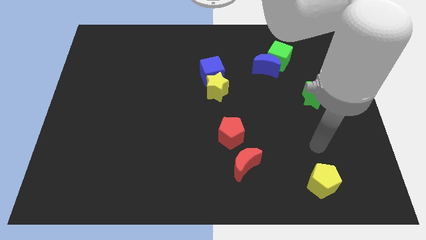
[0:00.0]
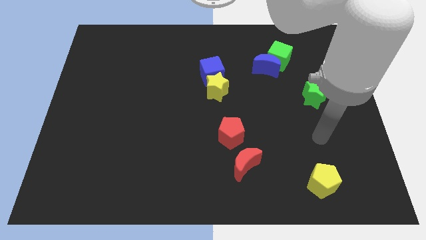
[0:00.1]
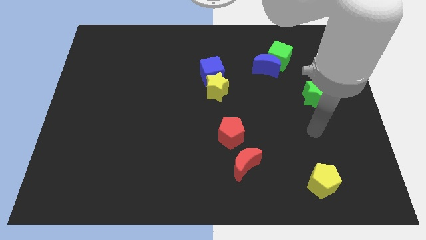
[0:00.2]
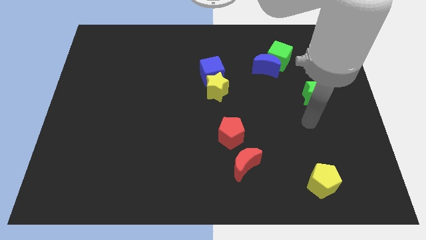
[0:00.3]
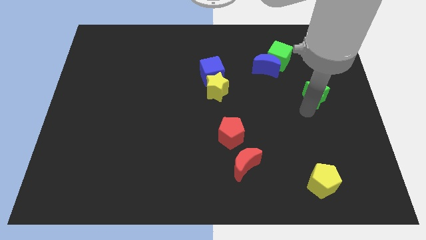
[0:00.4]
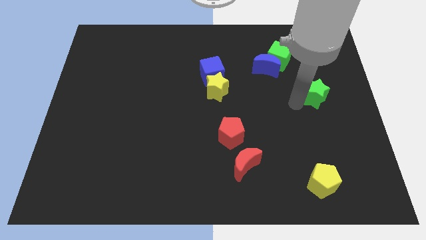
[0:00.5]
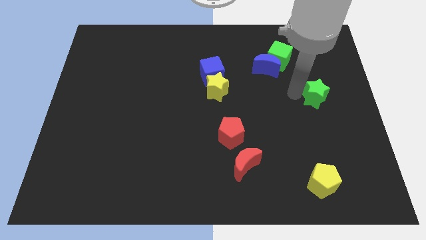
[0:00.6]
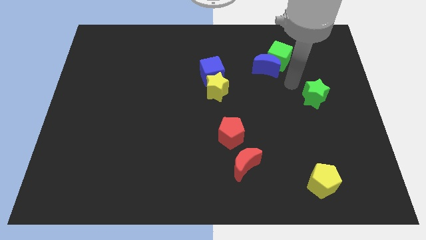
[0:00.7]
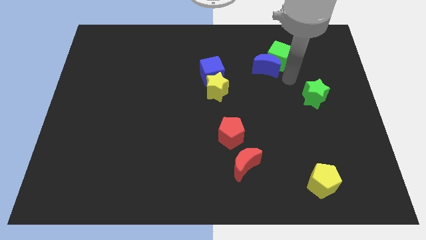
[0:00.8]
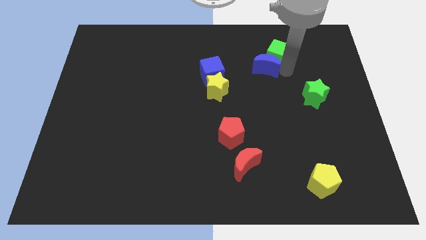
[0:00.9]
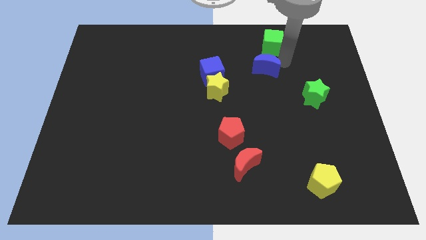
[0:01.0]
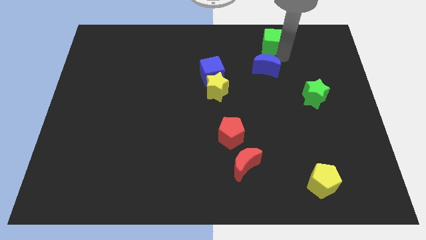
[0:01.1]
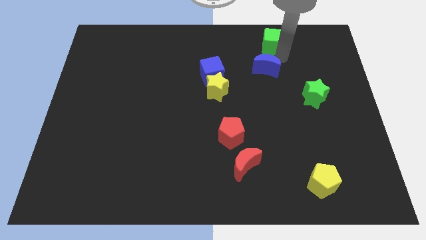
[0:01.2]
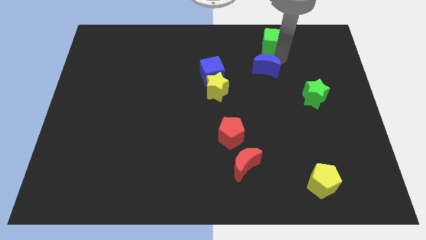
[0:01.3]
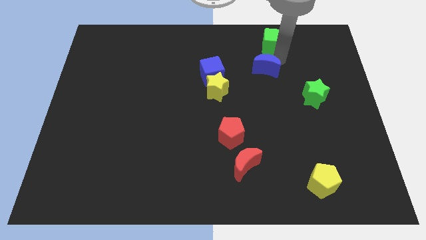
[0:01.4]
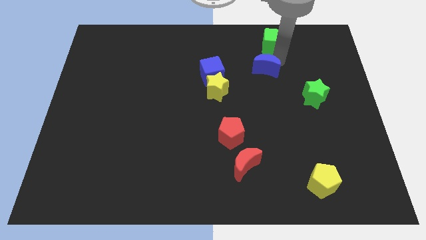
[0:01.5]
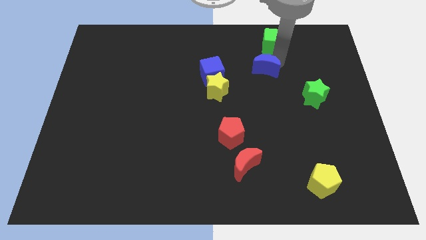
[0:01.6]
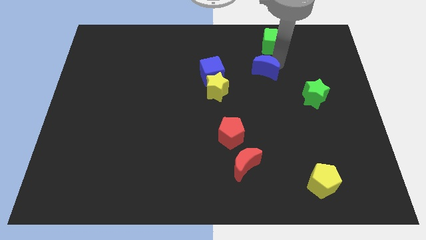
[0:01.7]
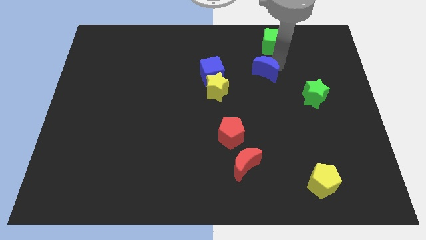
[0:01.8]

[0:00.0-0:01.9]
move the blue moon away from the green cube

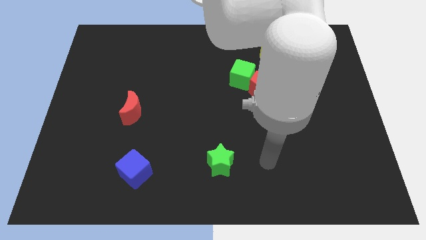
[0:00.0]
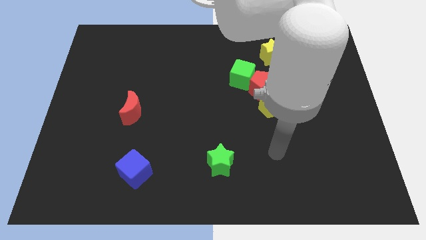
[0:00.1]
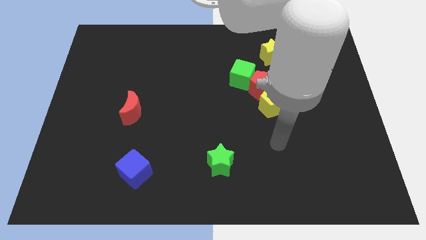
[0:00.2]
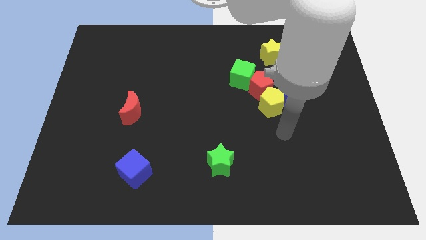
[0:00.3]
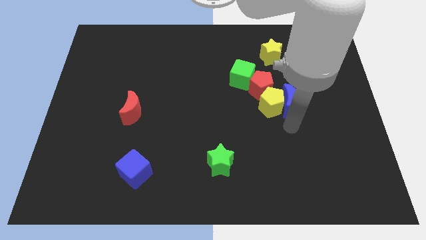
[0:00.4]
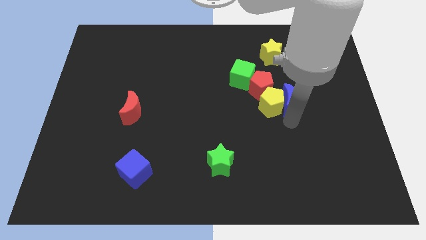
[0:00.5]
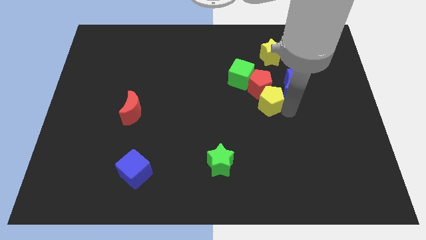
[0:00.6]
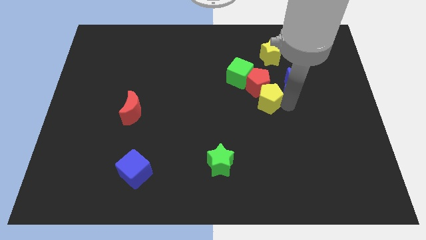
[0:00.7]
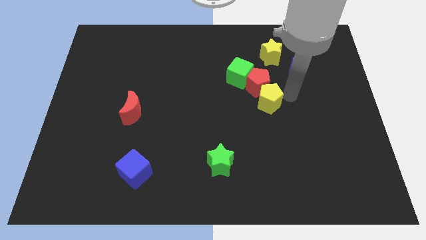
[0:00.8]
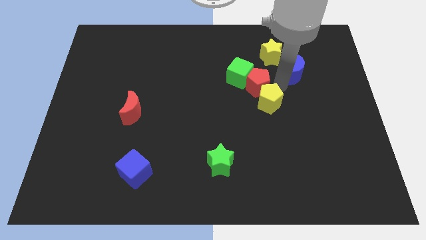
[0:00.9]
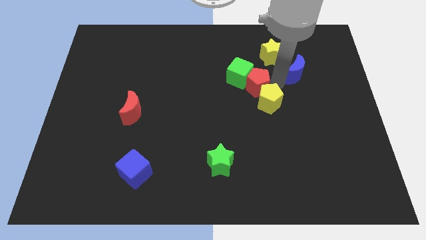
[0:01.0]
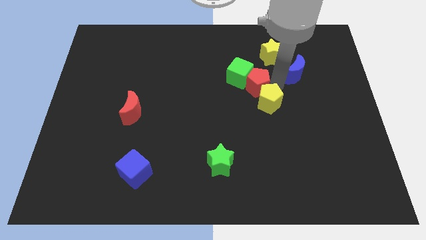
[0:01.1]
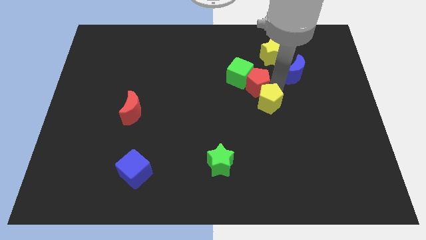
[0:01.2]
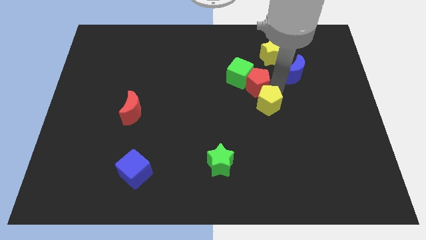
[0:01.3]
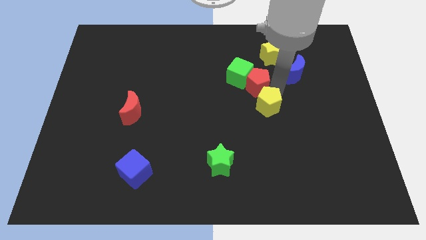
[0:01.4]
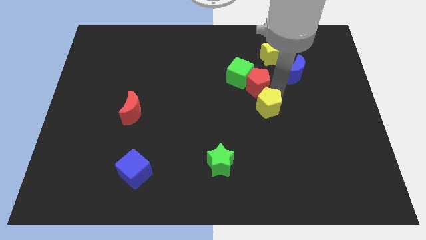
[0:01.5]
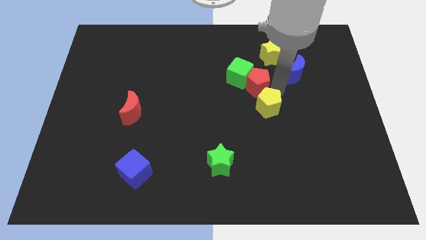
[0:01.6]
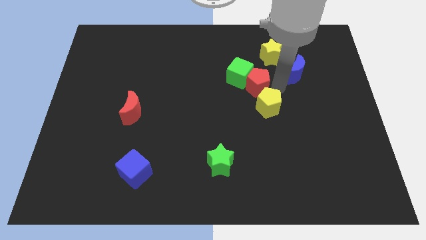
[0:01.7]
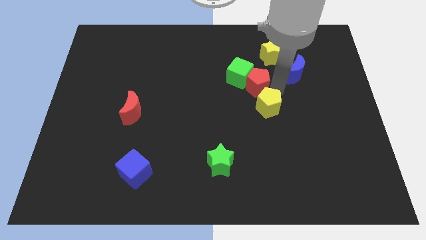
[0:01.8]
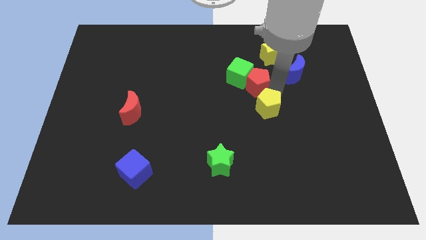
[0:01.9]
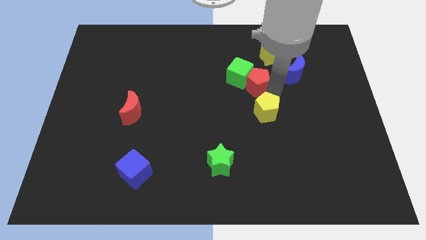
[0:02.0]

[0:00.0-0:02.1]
separate the yellow pentagon from the blue moon and red pentagon

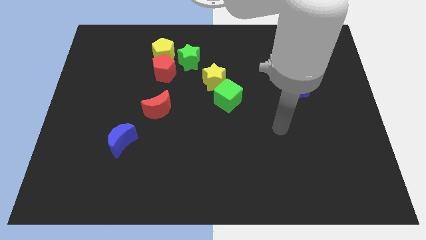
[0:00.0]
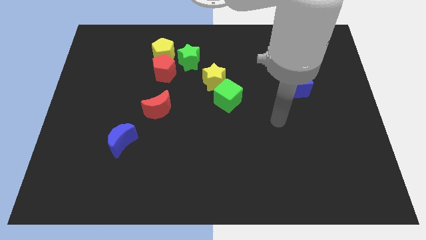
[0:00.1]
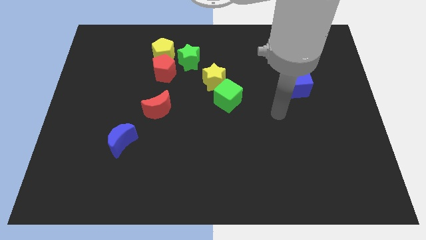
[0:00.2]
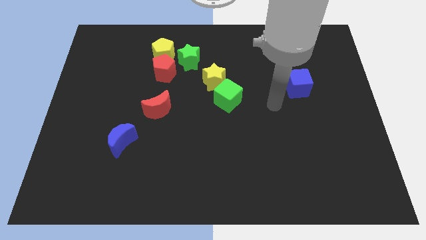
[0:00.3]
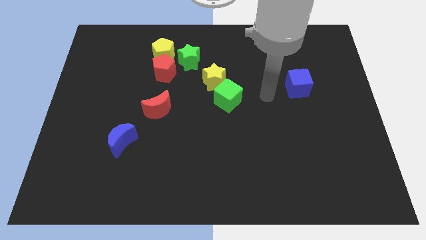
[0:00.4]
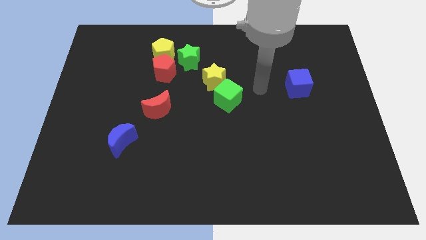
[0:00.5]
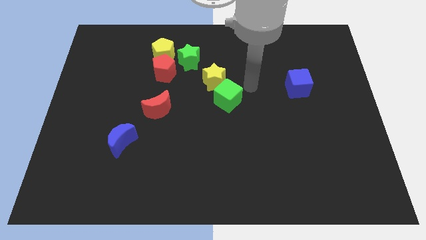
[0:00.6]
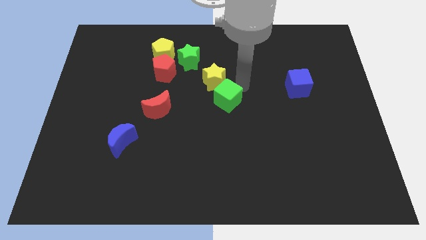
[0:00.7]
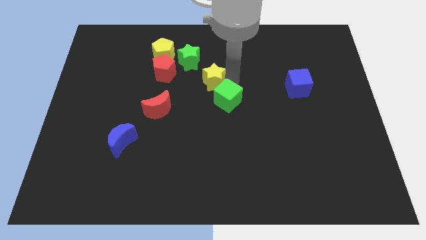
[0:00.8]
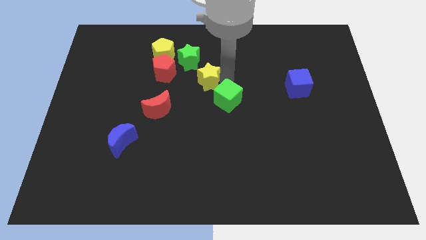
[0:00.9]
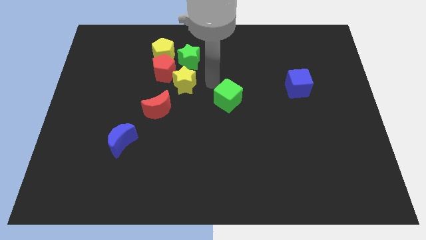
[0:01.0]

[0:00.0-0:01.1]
separate the green cube from the yellow star

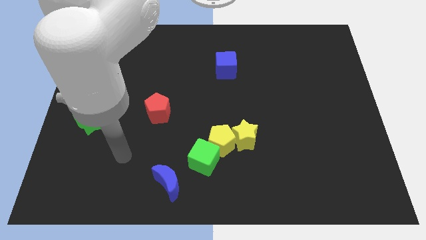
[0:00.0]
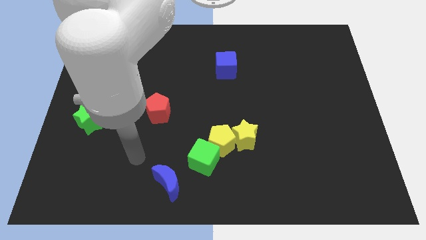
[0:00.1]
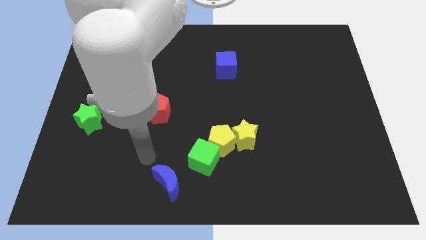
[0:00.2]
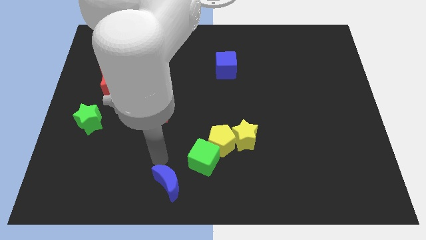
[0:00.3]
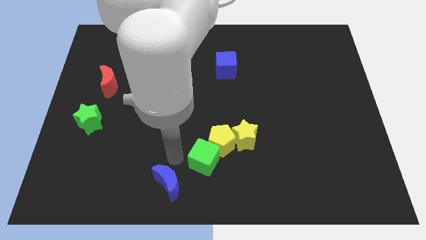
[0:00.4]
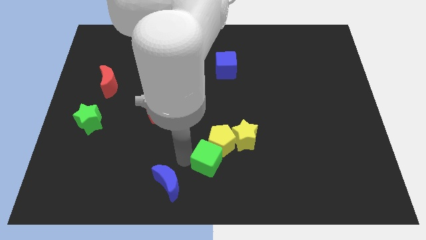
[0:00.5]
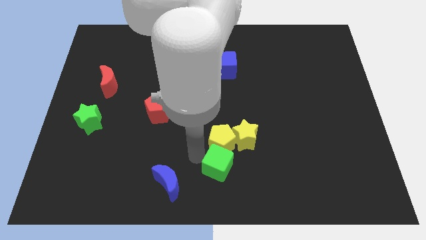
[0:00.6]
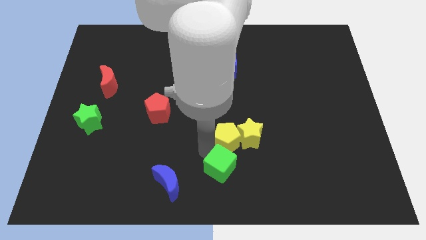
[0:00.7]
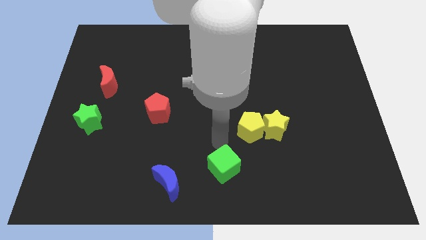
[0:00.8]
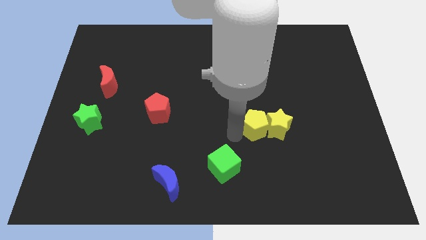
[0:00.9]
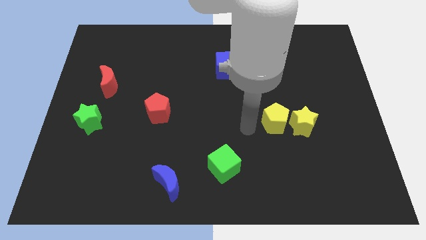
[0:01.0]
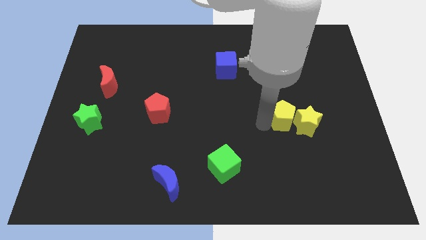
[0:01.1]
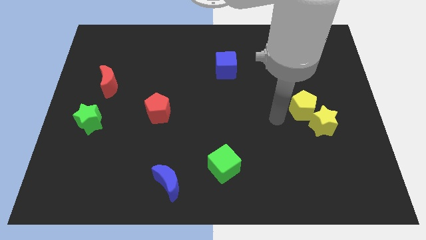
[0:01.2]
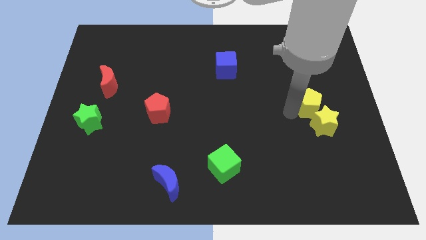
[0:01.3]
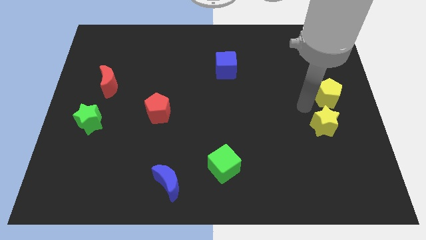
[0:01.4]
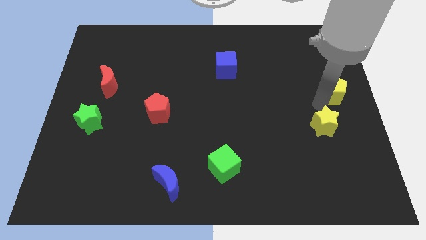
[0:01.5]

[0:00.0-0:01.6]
move the yellow star away from the yellow pentagon

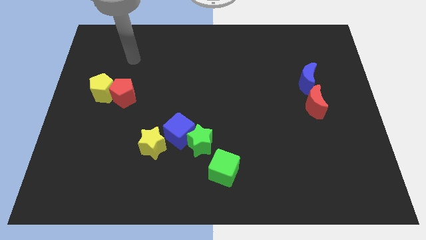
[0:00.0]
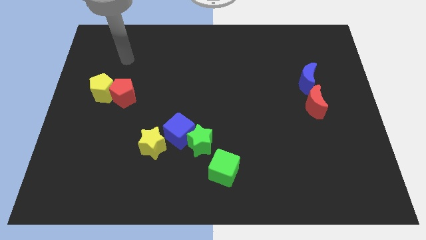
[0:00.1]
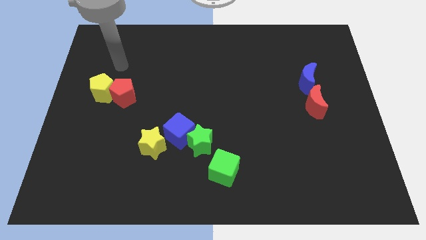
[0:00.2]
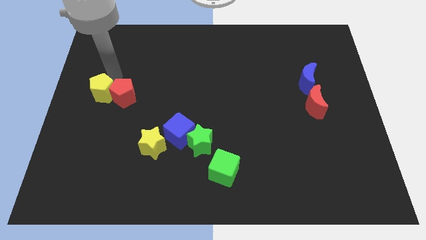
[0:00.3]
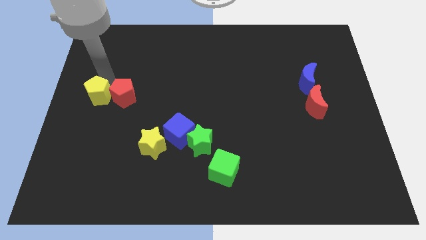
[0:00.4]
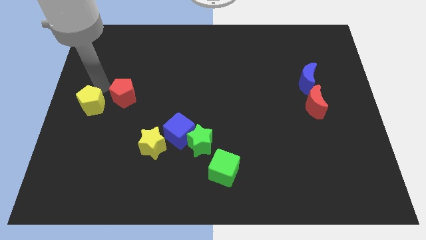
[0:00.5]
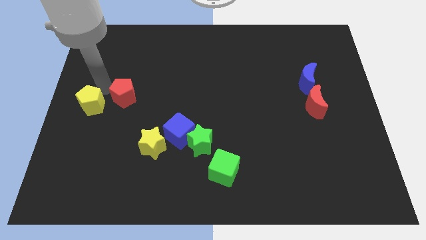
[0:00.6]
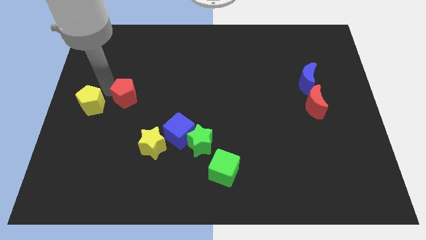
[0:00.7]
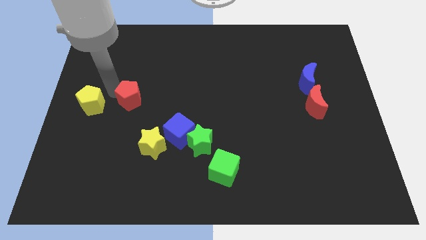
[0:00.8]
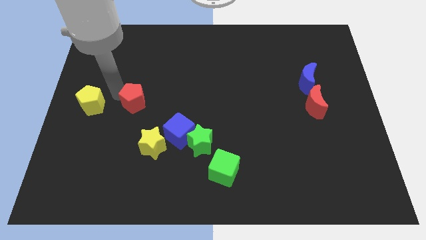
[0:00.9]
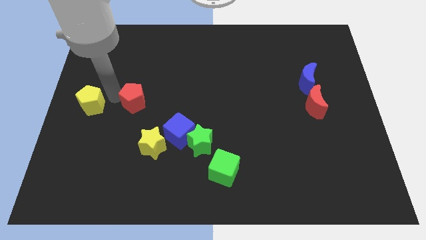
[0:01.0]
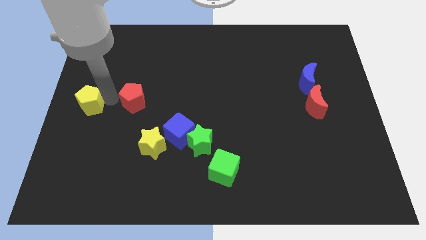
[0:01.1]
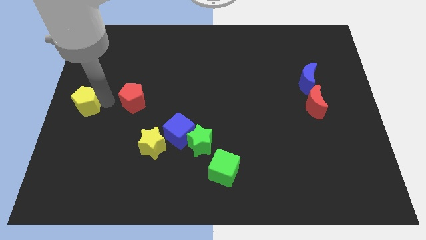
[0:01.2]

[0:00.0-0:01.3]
separate the red pentagon from the yellow pentagon

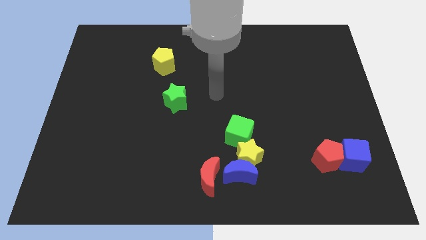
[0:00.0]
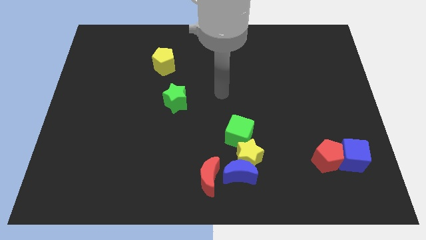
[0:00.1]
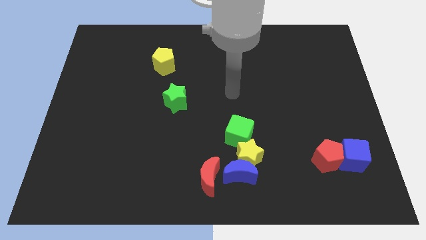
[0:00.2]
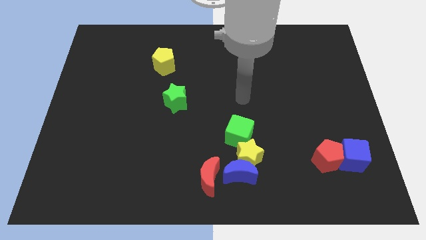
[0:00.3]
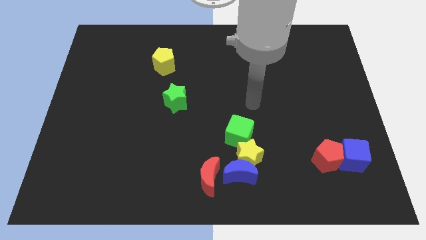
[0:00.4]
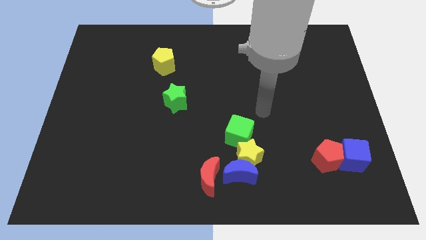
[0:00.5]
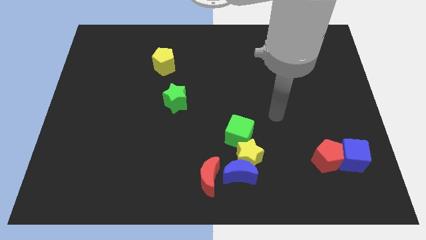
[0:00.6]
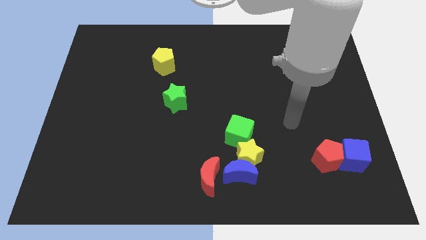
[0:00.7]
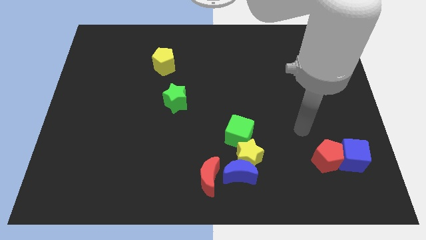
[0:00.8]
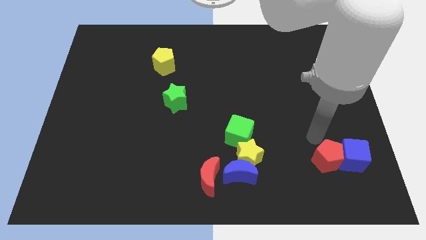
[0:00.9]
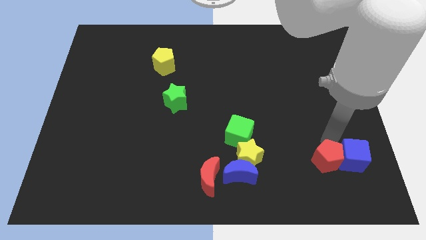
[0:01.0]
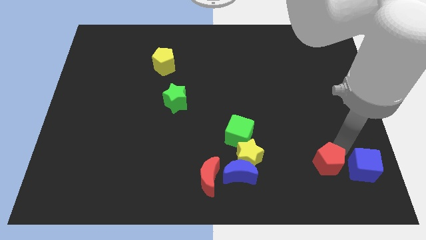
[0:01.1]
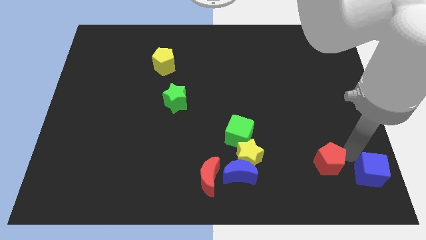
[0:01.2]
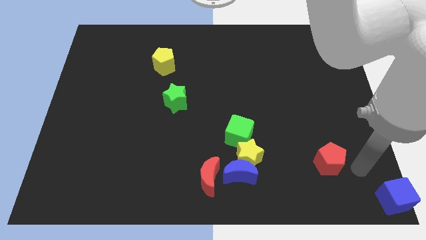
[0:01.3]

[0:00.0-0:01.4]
move the red pentagon away from the blue cube
